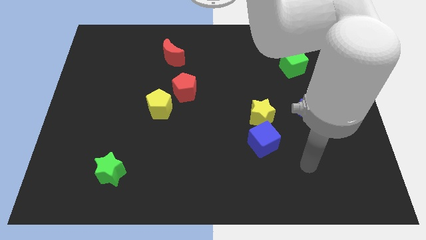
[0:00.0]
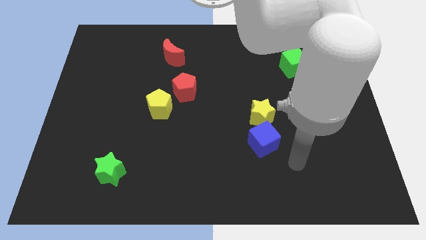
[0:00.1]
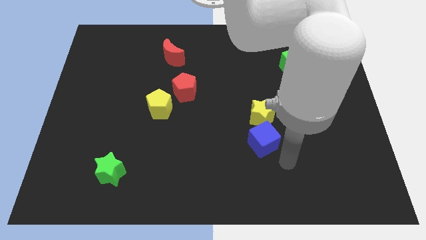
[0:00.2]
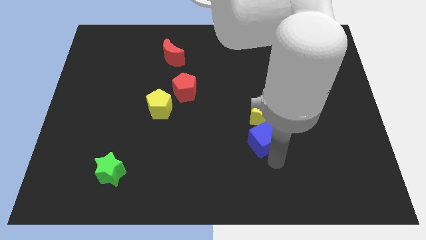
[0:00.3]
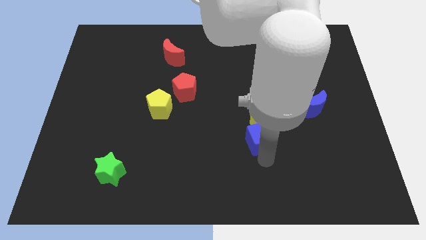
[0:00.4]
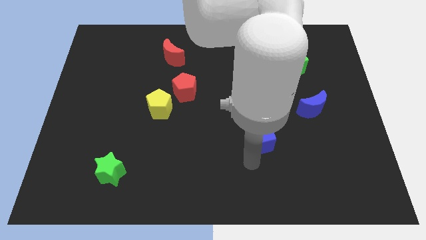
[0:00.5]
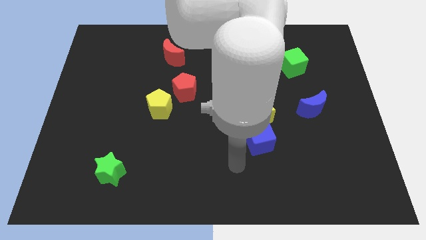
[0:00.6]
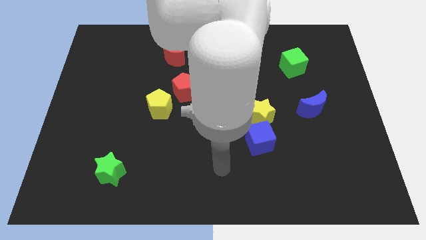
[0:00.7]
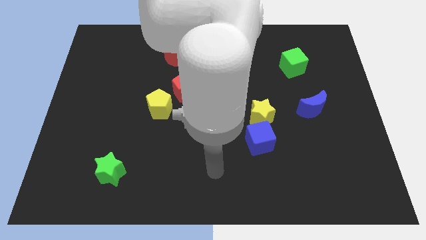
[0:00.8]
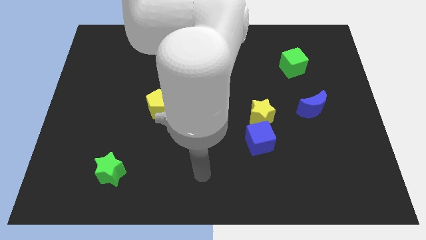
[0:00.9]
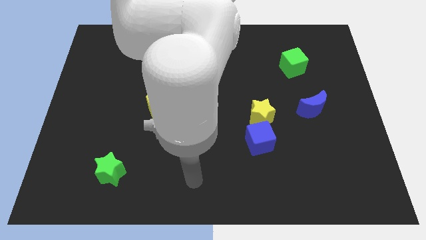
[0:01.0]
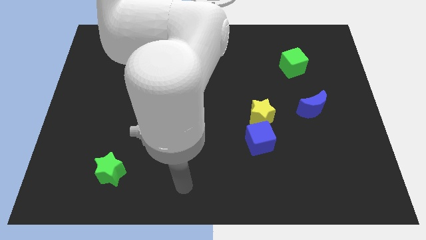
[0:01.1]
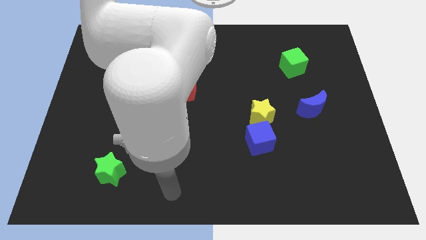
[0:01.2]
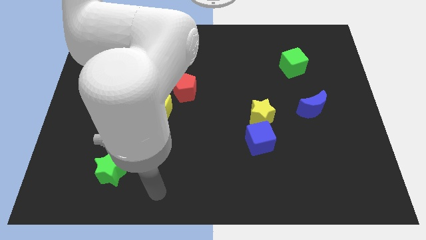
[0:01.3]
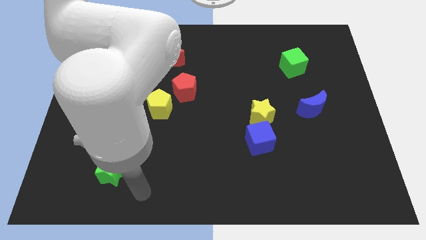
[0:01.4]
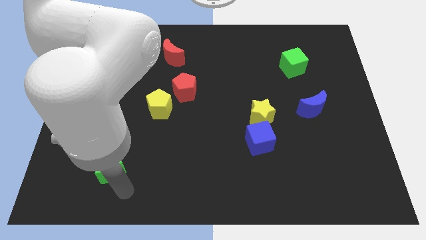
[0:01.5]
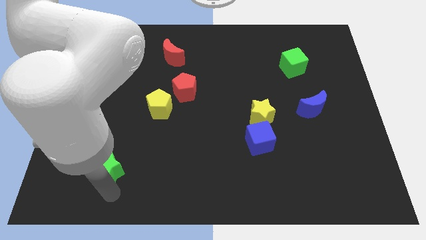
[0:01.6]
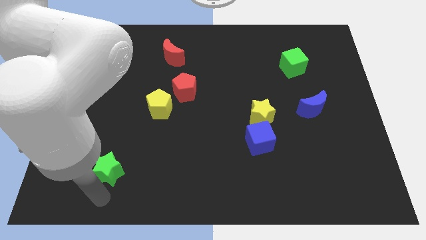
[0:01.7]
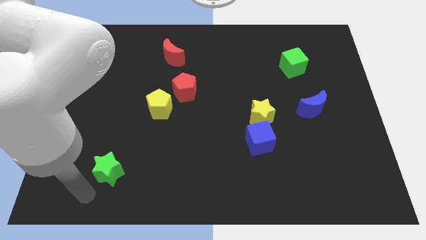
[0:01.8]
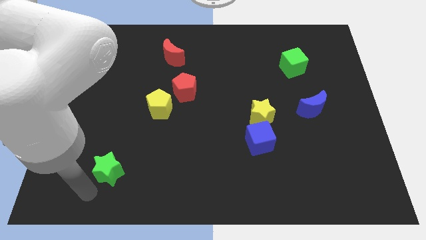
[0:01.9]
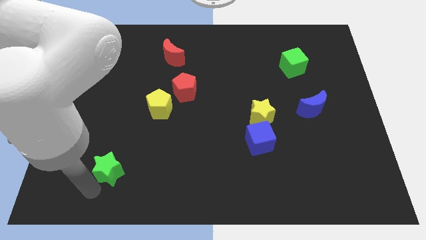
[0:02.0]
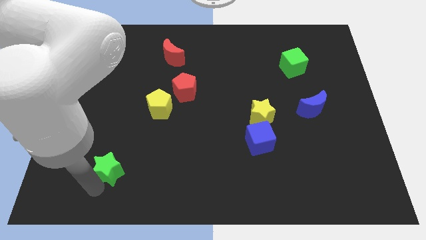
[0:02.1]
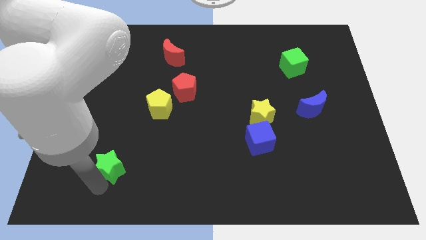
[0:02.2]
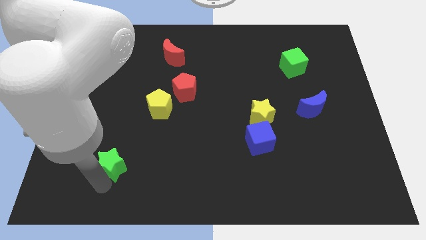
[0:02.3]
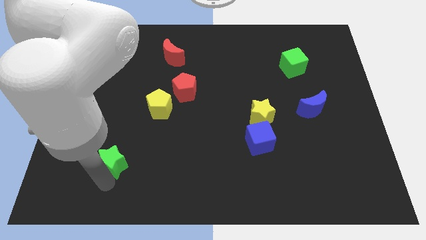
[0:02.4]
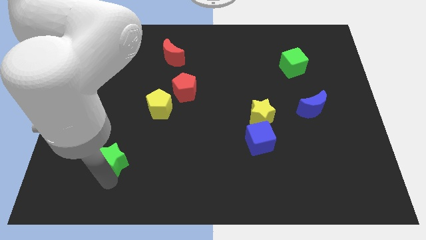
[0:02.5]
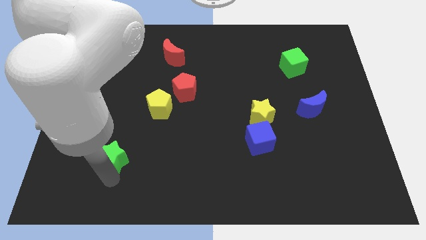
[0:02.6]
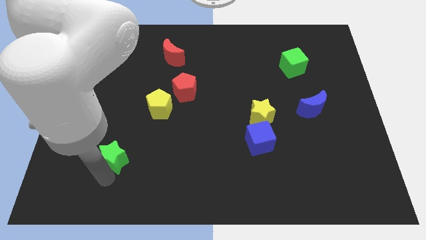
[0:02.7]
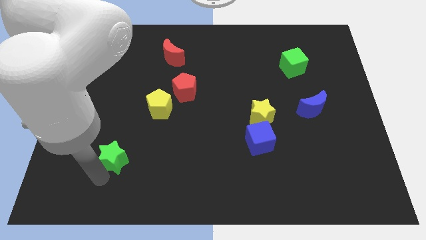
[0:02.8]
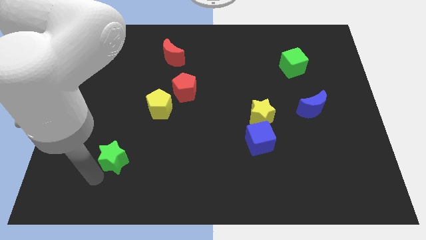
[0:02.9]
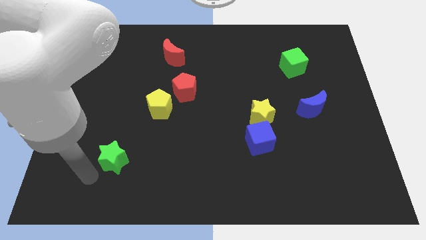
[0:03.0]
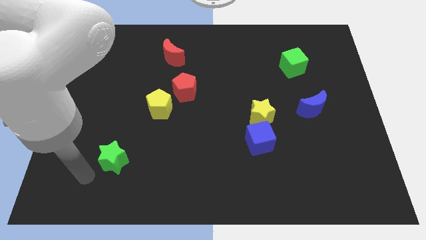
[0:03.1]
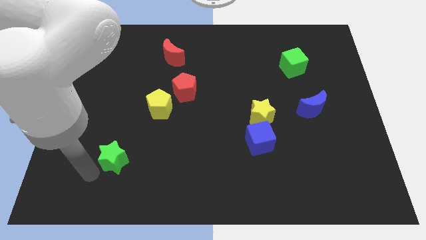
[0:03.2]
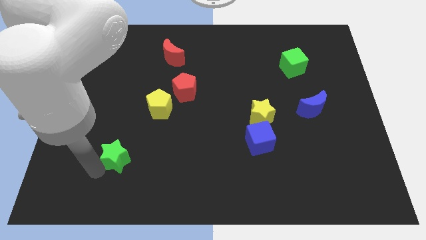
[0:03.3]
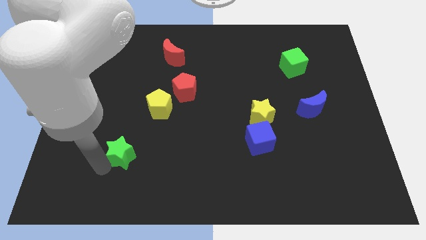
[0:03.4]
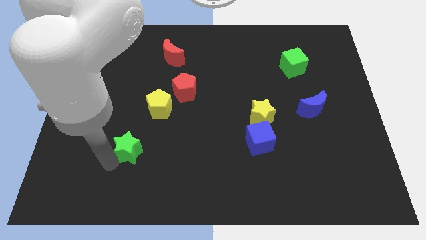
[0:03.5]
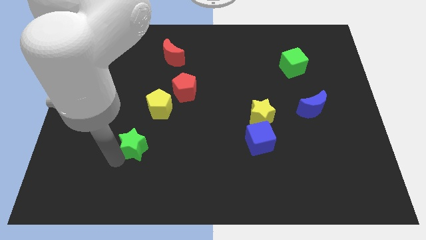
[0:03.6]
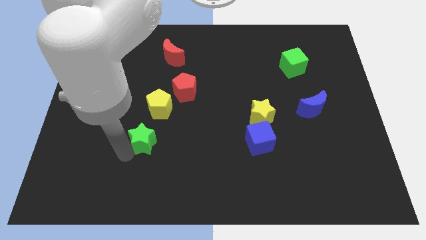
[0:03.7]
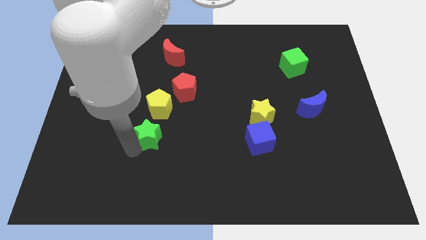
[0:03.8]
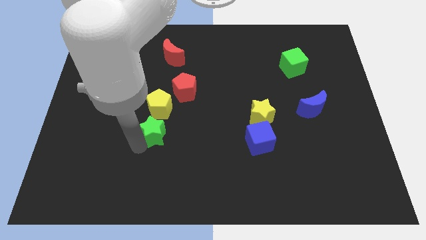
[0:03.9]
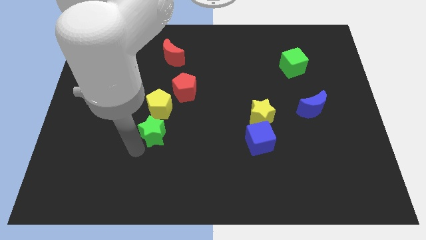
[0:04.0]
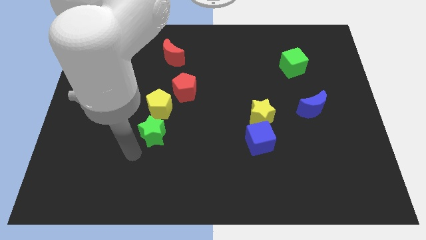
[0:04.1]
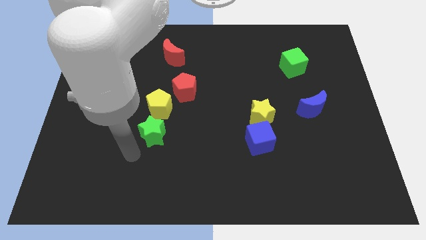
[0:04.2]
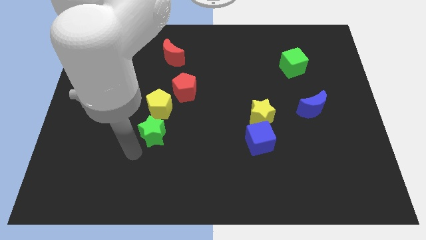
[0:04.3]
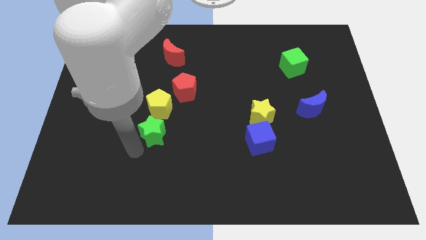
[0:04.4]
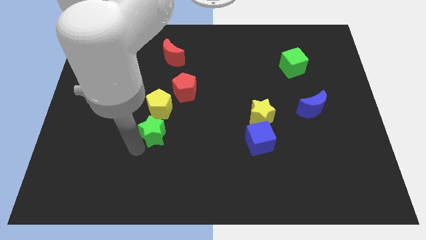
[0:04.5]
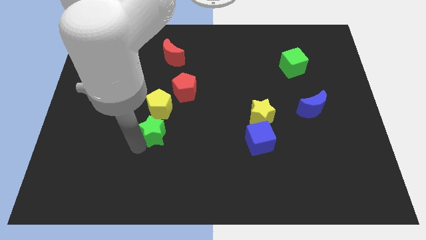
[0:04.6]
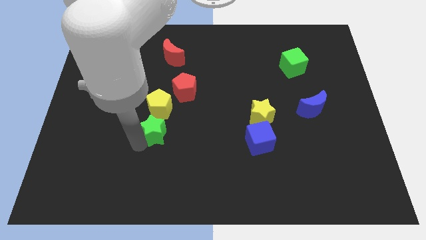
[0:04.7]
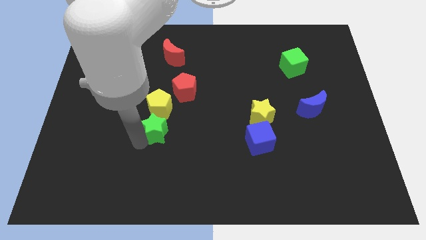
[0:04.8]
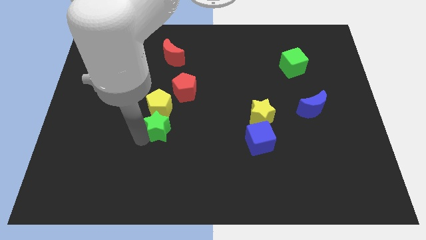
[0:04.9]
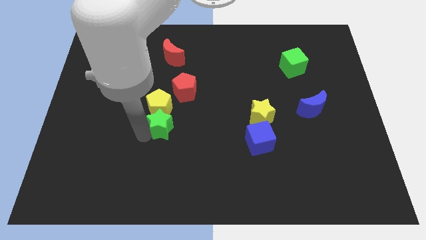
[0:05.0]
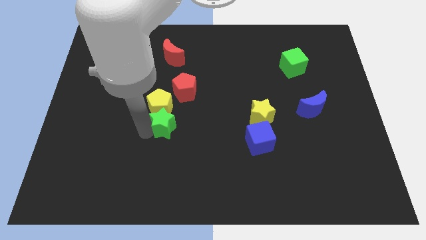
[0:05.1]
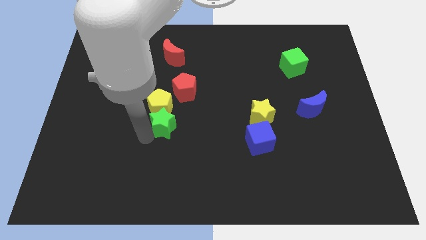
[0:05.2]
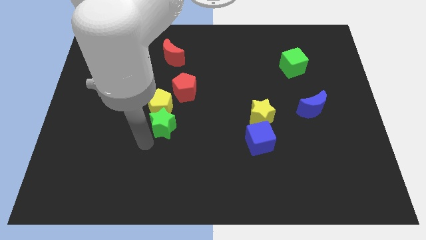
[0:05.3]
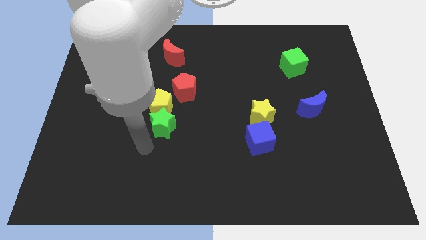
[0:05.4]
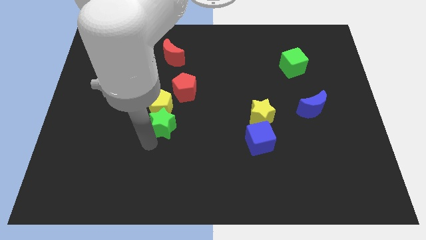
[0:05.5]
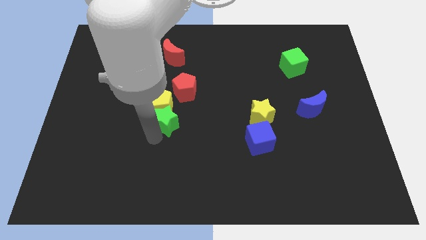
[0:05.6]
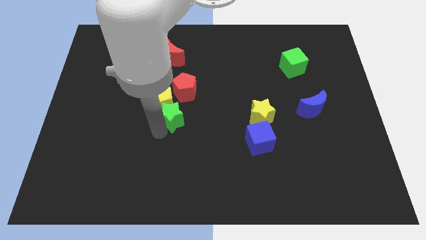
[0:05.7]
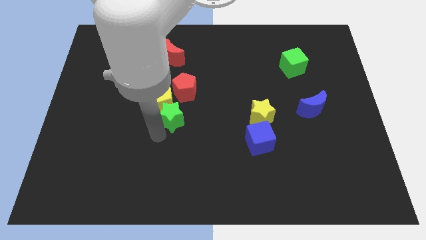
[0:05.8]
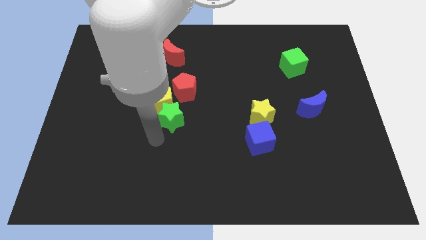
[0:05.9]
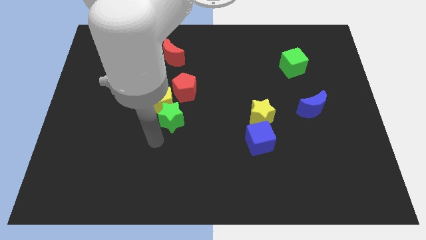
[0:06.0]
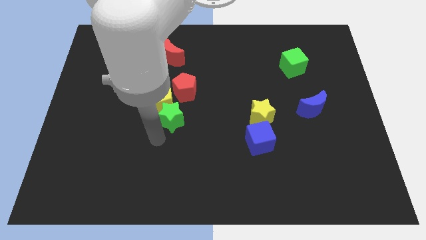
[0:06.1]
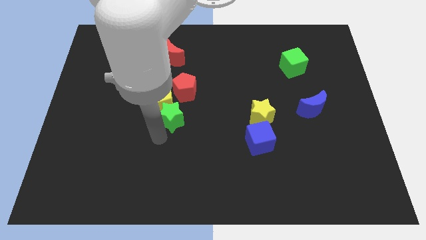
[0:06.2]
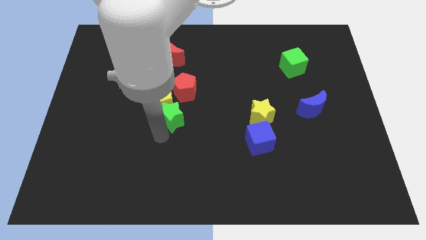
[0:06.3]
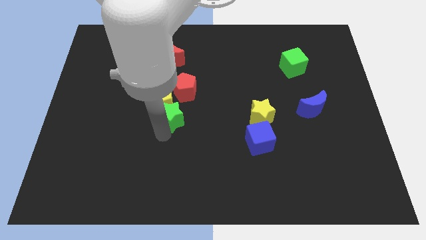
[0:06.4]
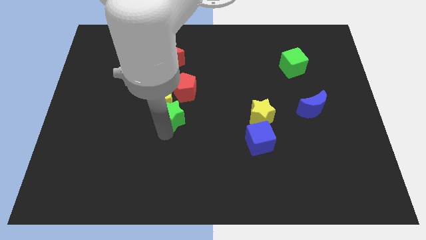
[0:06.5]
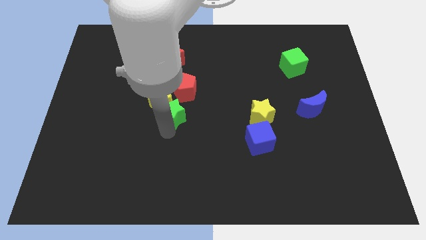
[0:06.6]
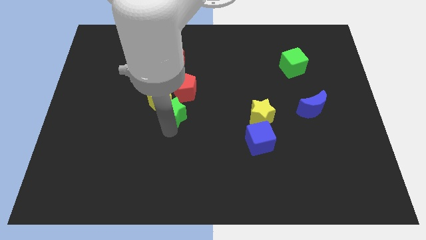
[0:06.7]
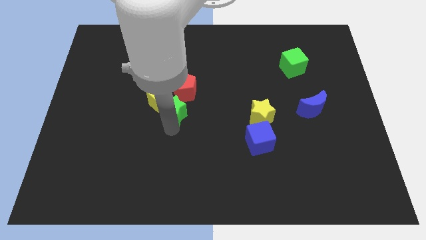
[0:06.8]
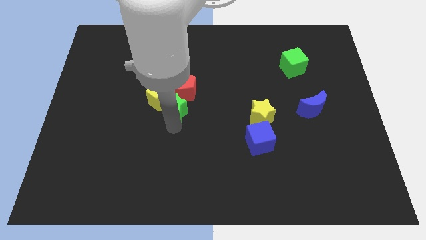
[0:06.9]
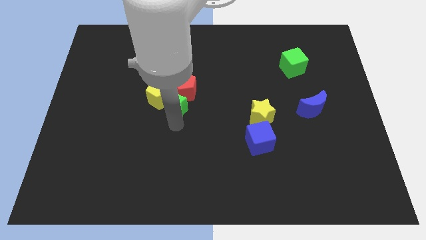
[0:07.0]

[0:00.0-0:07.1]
move the green star close to the red pentagon
